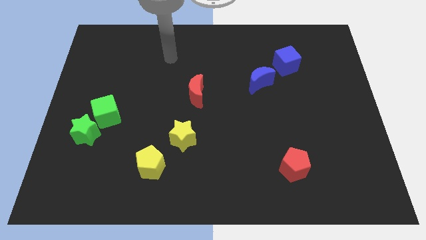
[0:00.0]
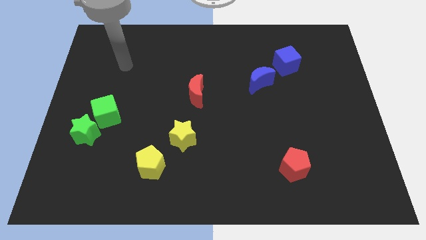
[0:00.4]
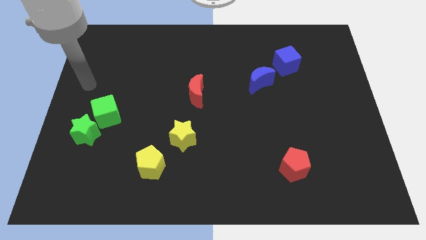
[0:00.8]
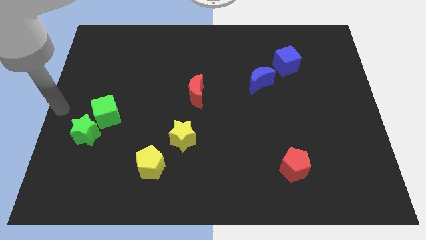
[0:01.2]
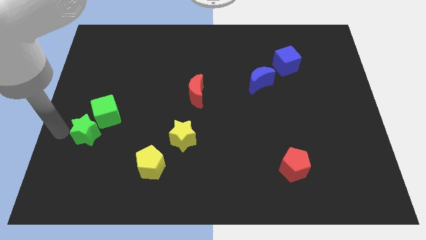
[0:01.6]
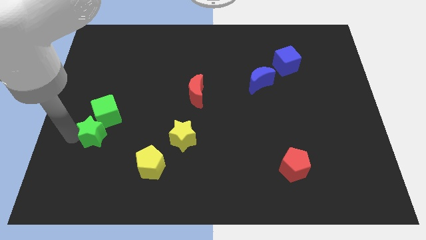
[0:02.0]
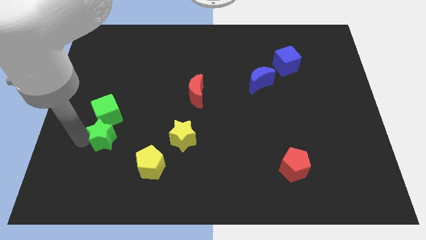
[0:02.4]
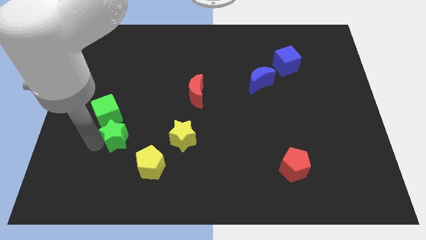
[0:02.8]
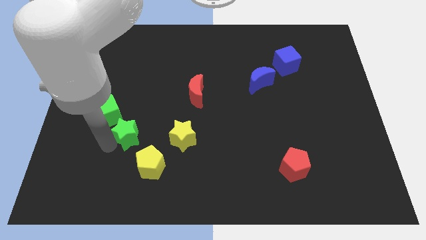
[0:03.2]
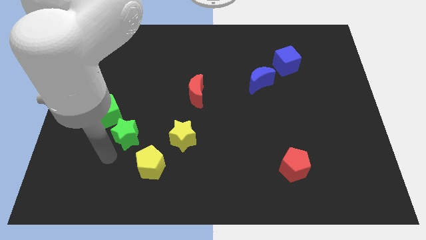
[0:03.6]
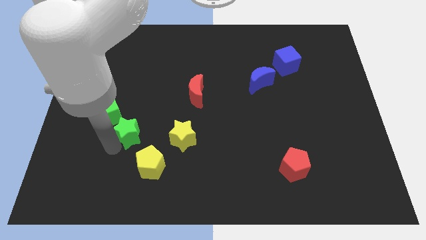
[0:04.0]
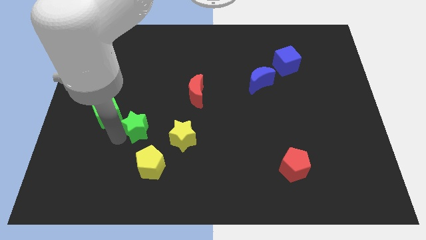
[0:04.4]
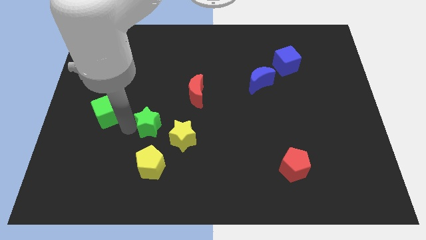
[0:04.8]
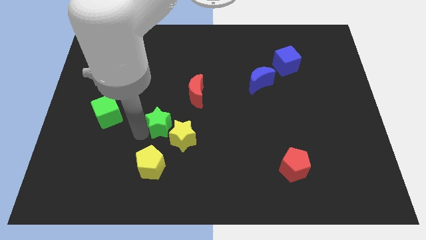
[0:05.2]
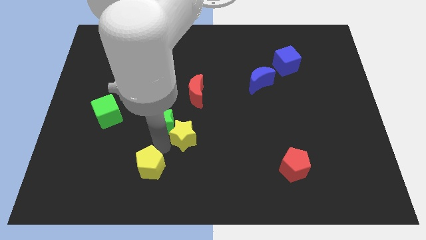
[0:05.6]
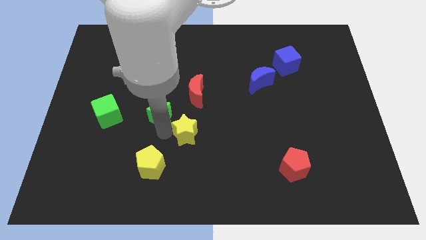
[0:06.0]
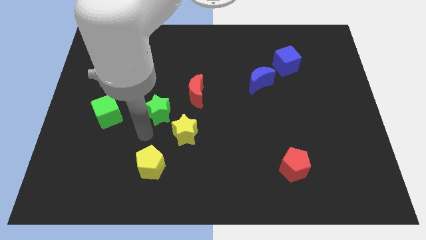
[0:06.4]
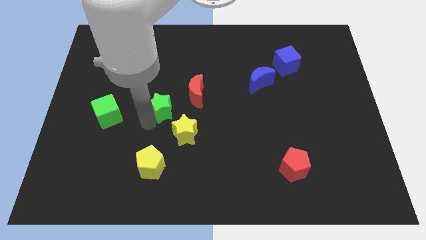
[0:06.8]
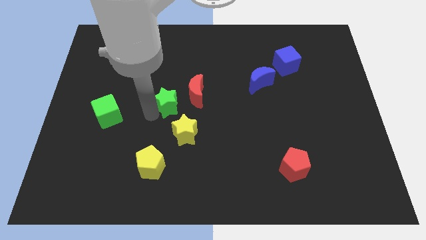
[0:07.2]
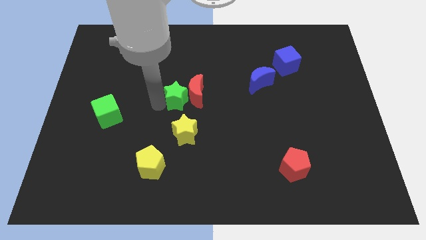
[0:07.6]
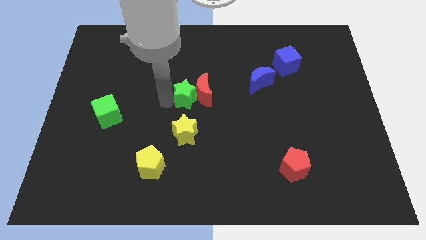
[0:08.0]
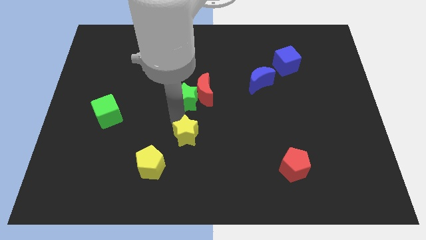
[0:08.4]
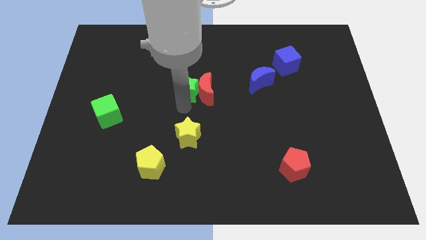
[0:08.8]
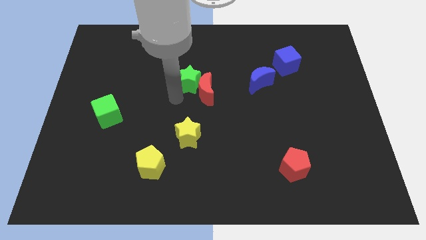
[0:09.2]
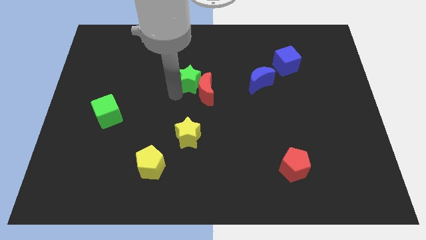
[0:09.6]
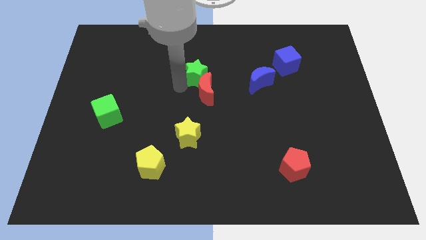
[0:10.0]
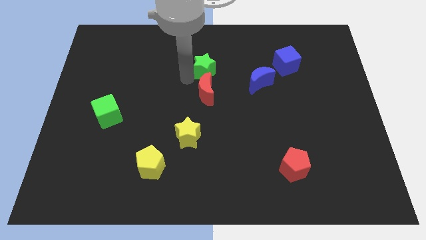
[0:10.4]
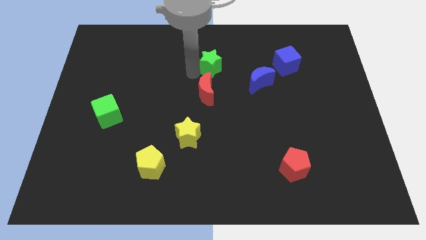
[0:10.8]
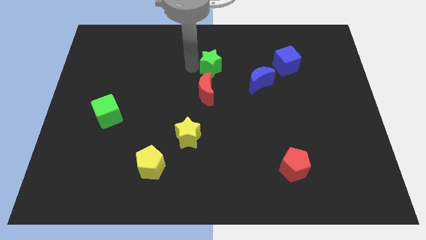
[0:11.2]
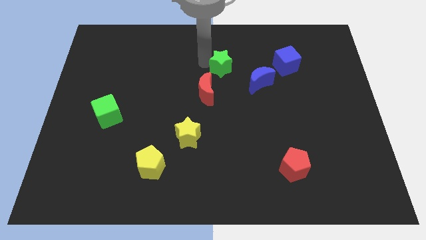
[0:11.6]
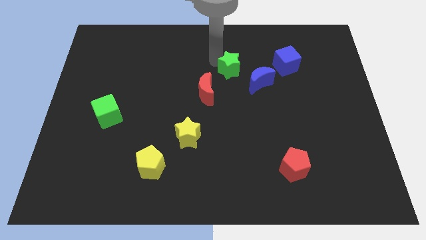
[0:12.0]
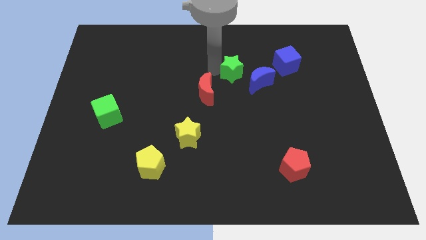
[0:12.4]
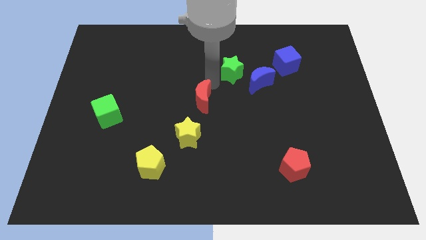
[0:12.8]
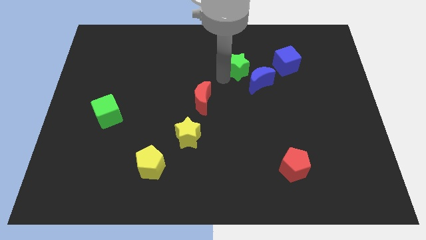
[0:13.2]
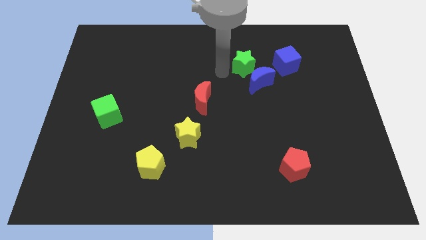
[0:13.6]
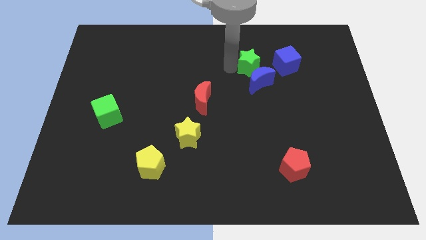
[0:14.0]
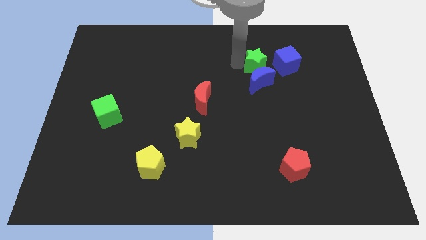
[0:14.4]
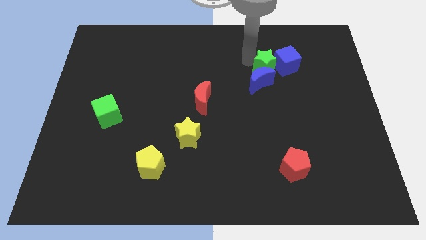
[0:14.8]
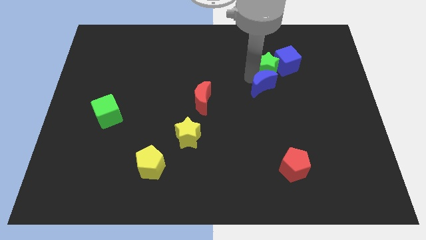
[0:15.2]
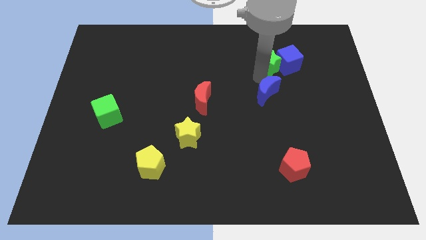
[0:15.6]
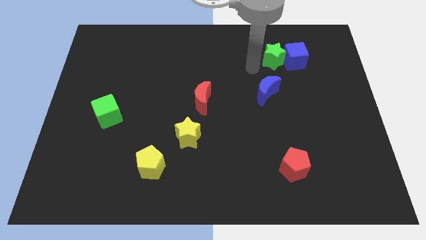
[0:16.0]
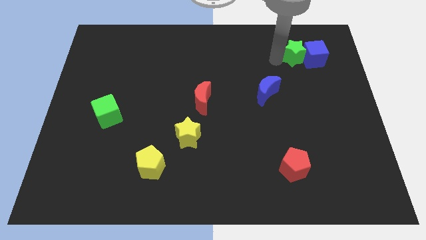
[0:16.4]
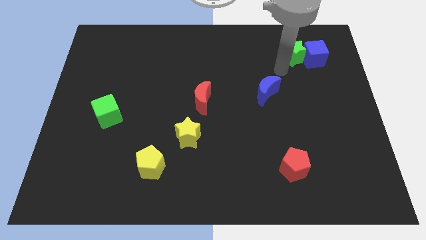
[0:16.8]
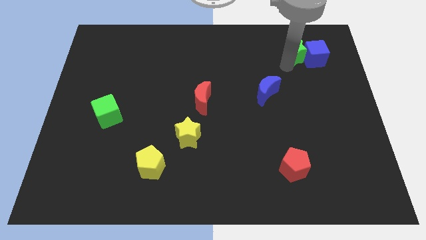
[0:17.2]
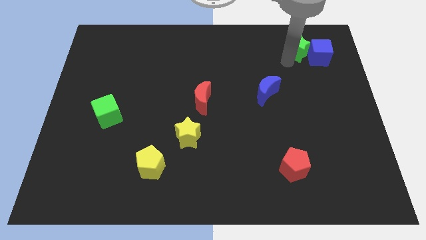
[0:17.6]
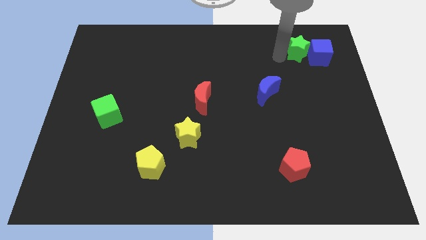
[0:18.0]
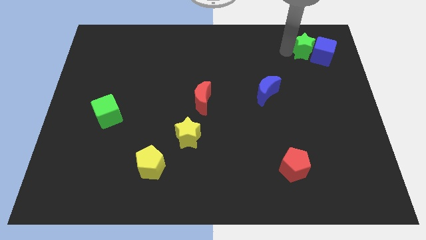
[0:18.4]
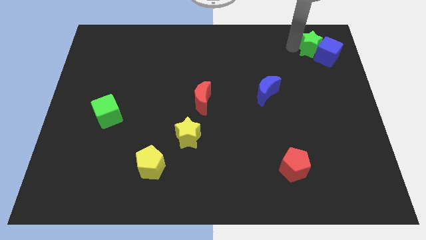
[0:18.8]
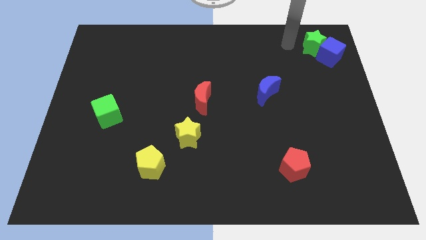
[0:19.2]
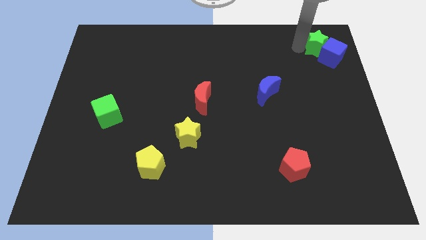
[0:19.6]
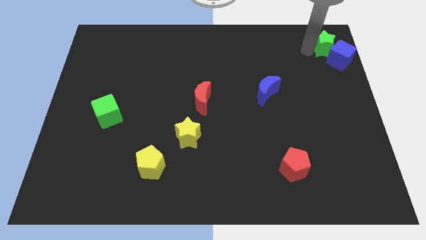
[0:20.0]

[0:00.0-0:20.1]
push the green star to the top right of the board
